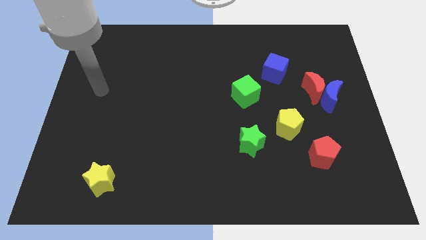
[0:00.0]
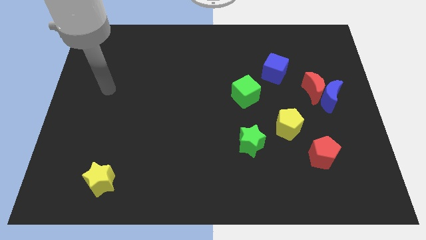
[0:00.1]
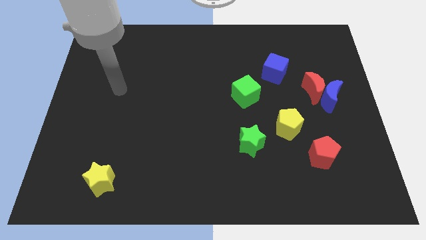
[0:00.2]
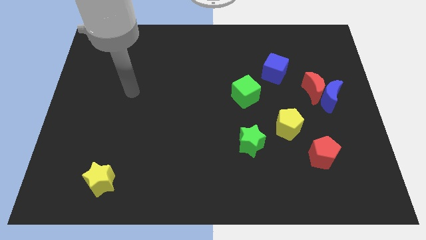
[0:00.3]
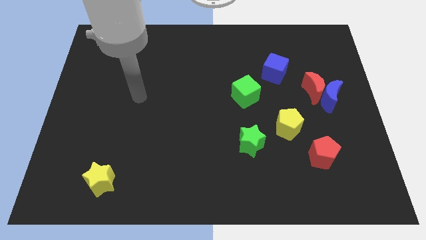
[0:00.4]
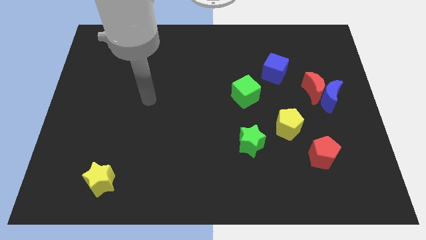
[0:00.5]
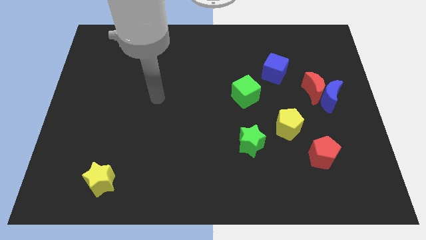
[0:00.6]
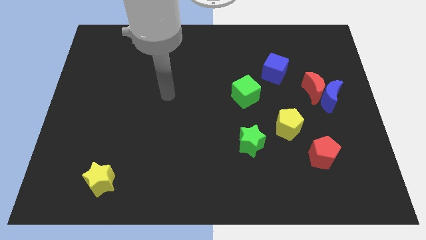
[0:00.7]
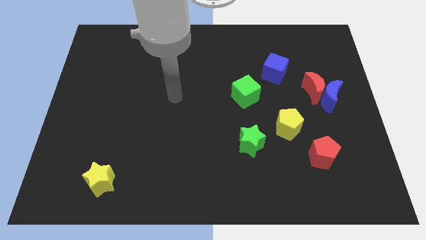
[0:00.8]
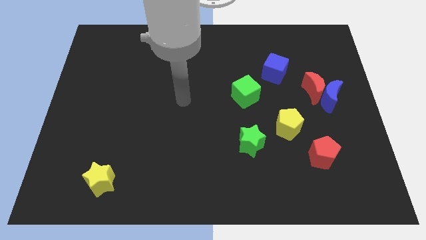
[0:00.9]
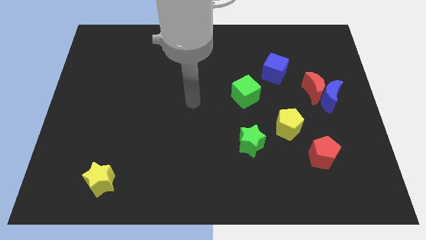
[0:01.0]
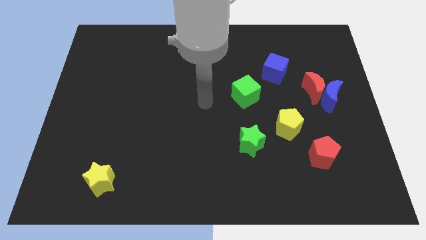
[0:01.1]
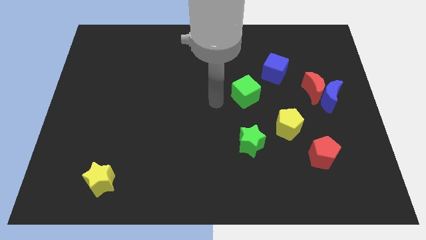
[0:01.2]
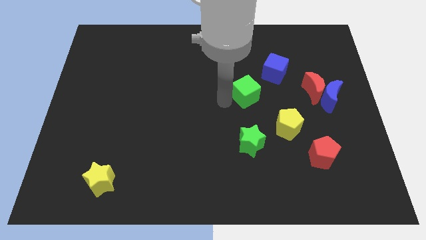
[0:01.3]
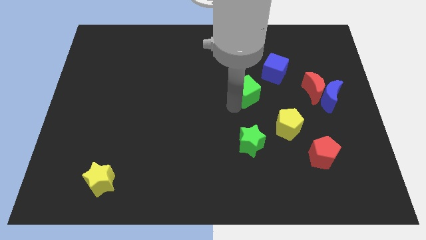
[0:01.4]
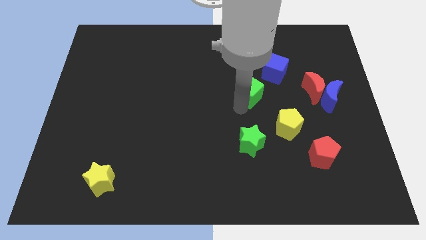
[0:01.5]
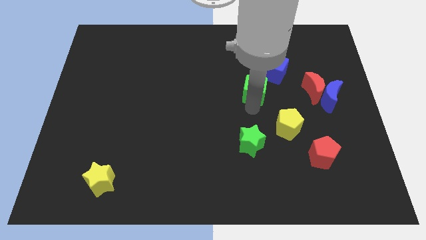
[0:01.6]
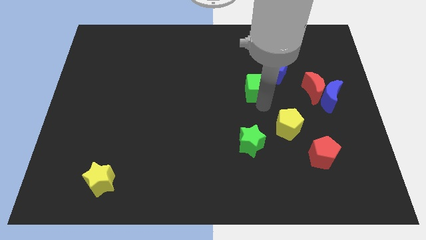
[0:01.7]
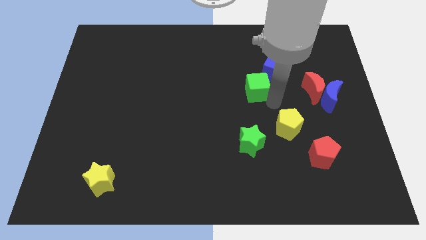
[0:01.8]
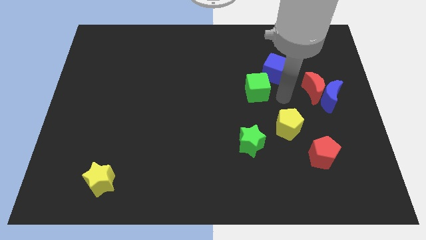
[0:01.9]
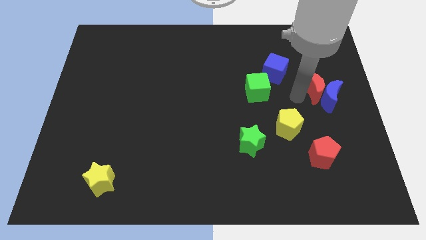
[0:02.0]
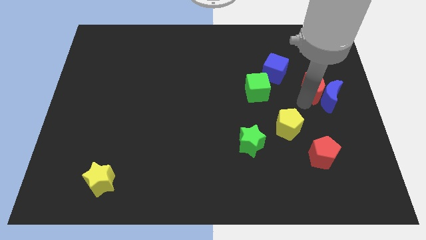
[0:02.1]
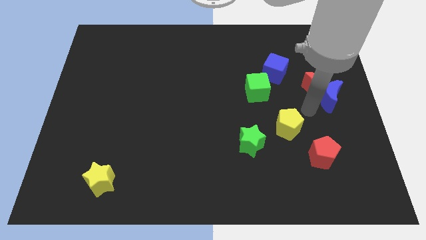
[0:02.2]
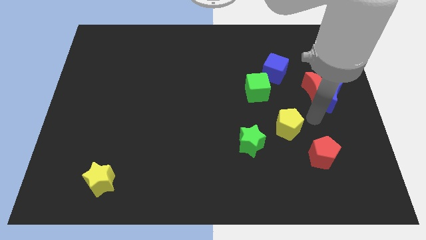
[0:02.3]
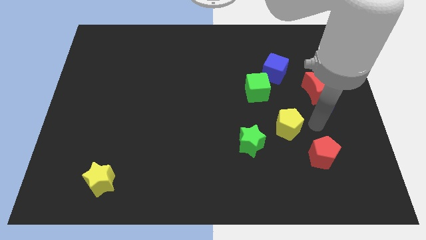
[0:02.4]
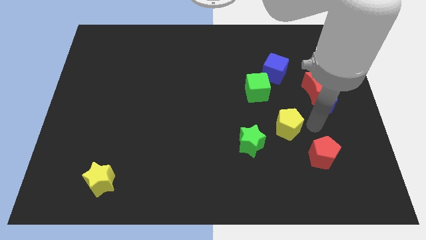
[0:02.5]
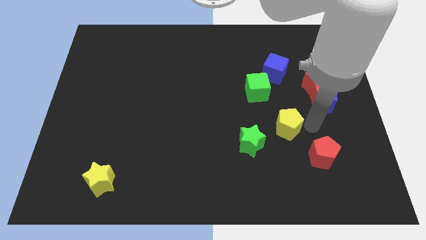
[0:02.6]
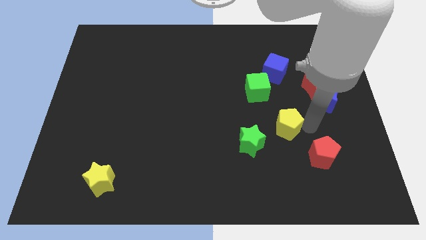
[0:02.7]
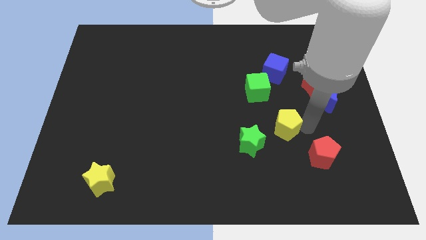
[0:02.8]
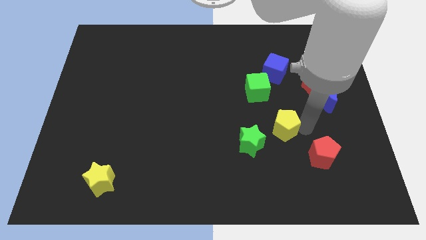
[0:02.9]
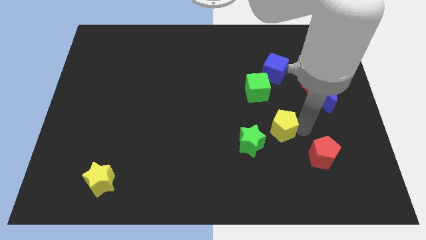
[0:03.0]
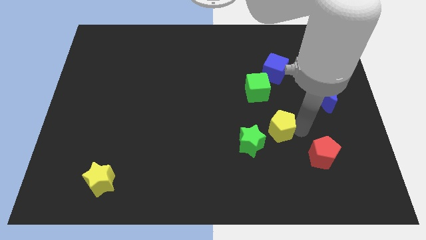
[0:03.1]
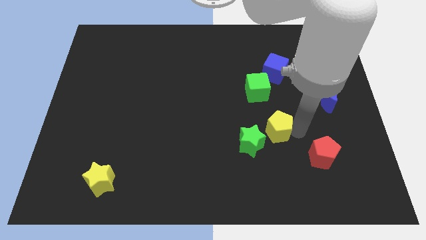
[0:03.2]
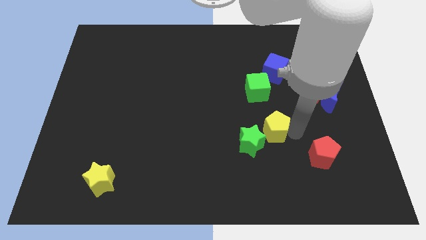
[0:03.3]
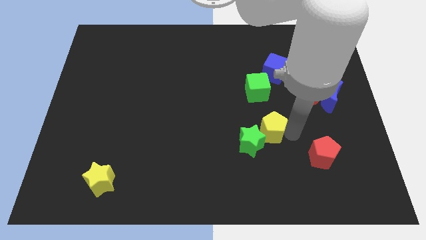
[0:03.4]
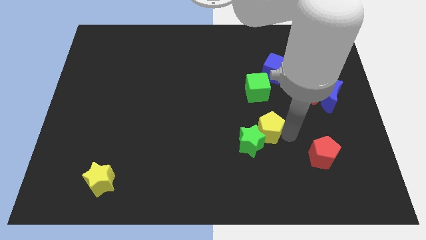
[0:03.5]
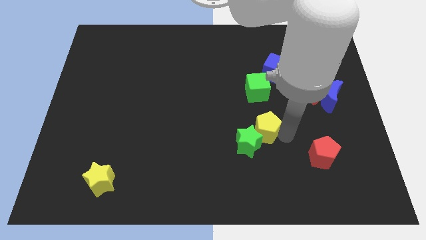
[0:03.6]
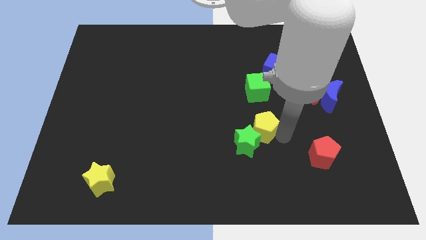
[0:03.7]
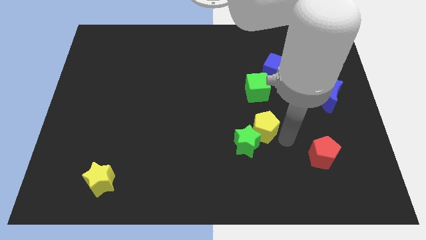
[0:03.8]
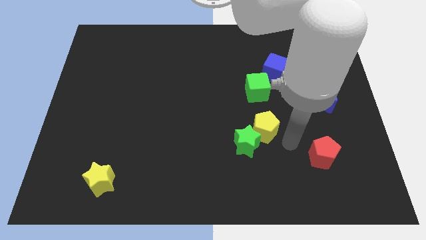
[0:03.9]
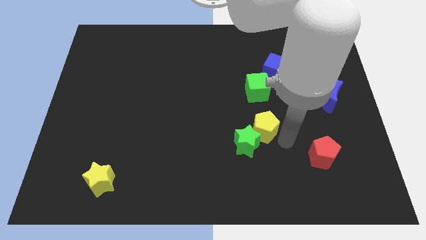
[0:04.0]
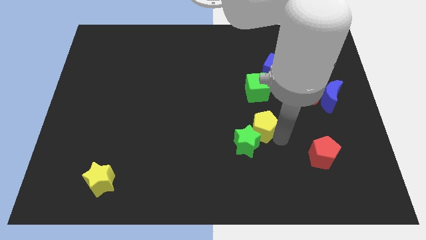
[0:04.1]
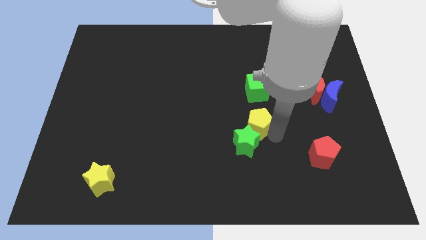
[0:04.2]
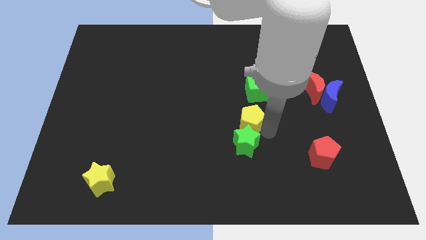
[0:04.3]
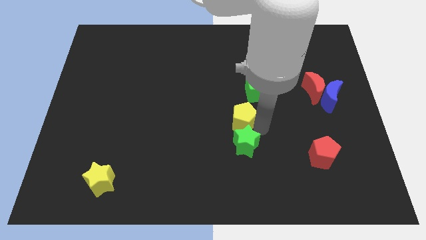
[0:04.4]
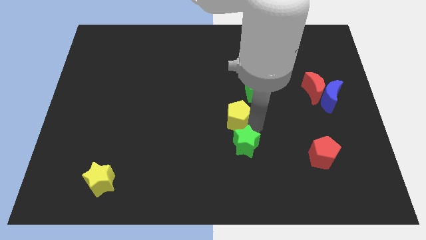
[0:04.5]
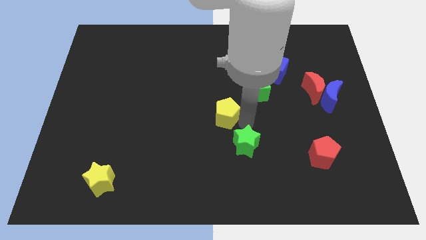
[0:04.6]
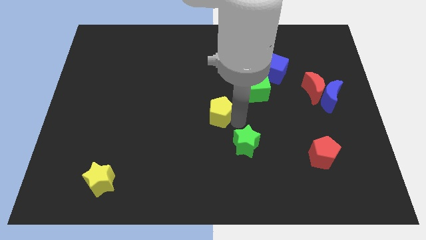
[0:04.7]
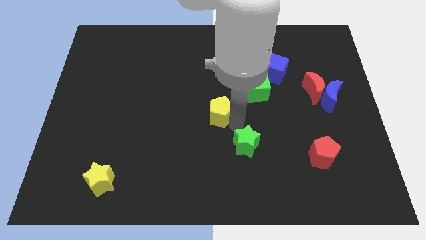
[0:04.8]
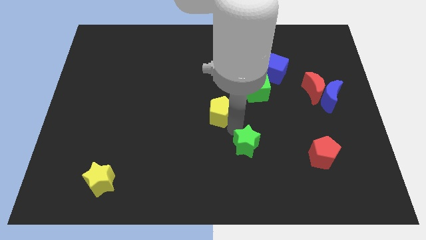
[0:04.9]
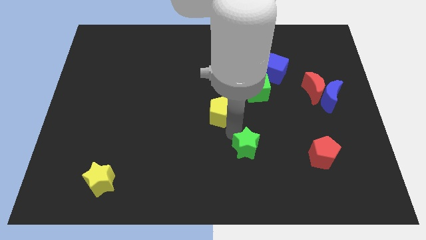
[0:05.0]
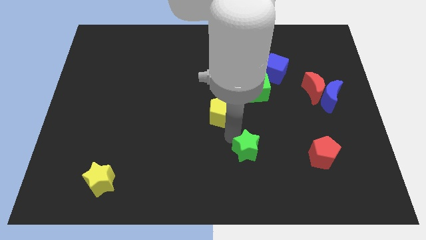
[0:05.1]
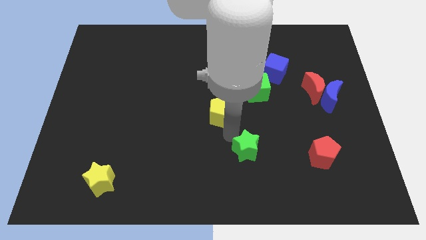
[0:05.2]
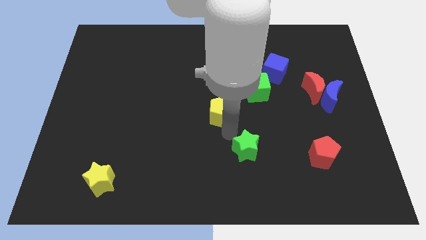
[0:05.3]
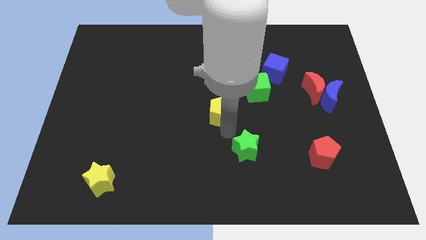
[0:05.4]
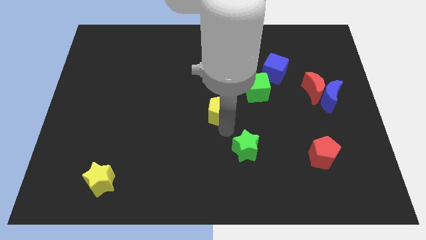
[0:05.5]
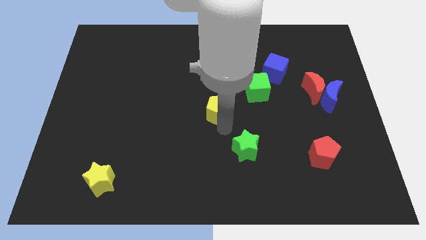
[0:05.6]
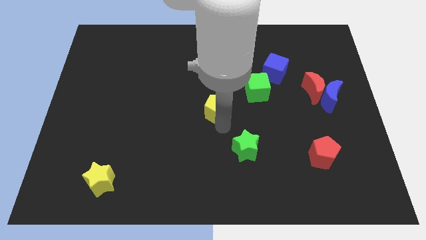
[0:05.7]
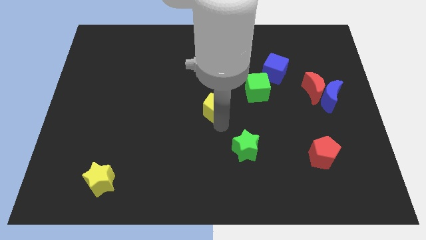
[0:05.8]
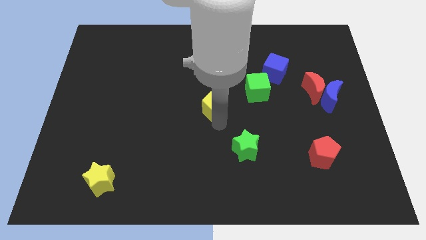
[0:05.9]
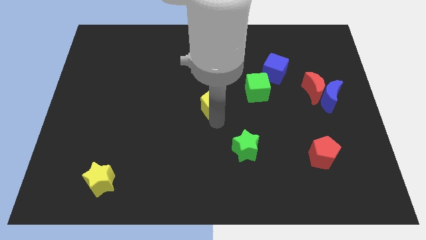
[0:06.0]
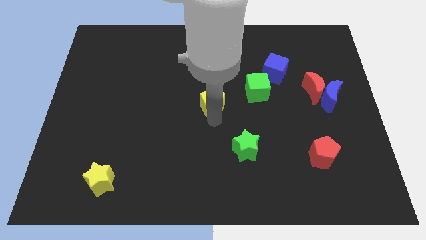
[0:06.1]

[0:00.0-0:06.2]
push the yellow pentagon to the left side of the green cube
